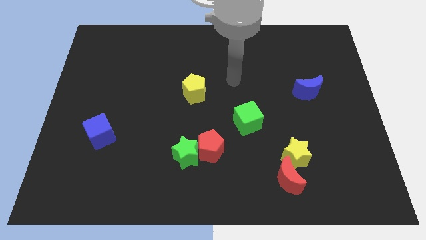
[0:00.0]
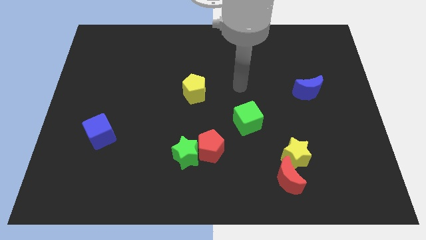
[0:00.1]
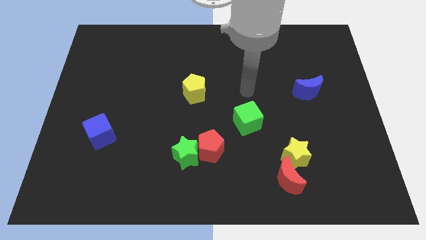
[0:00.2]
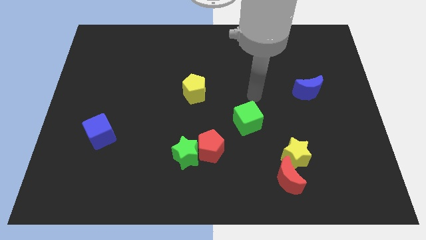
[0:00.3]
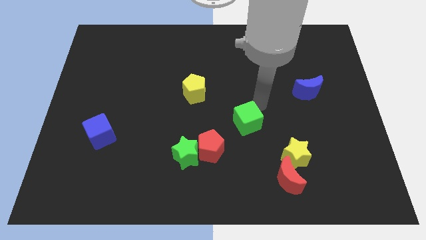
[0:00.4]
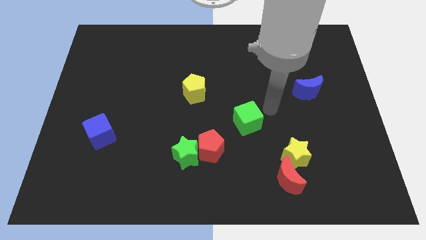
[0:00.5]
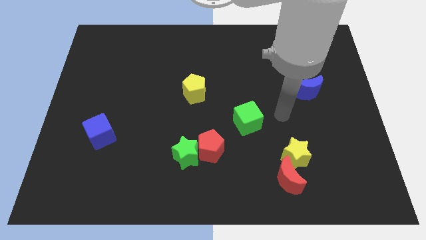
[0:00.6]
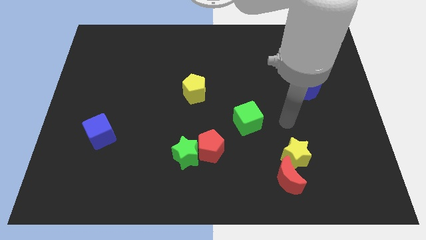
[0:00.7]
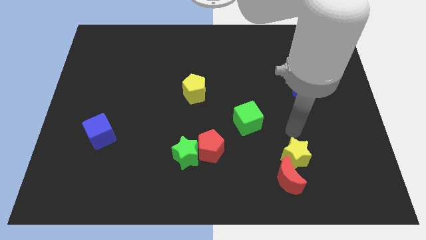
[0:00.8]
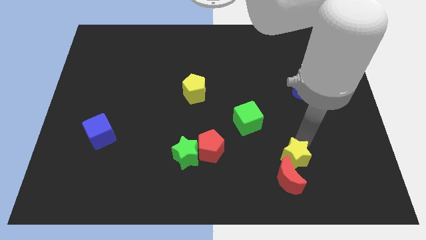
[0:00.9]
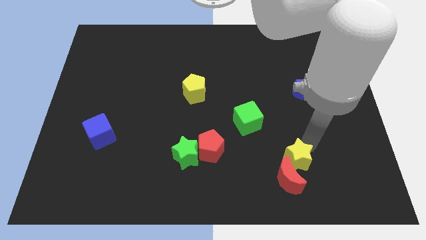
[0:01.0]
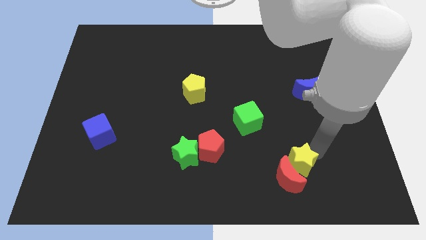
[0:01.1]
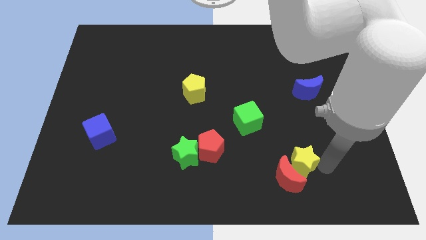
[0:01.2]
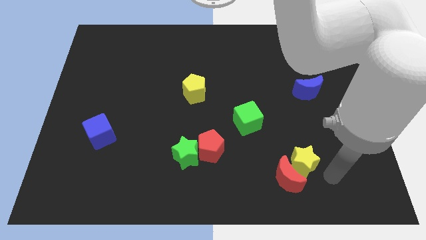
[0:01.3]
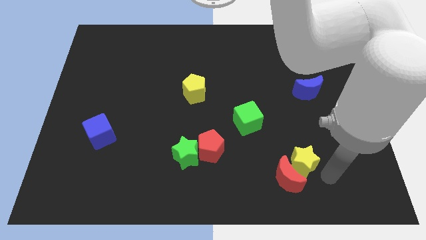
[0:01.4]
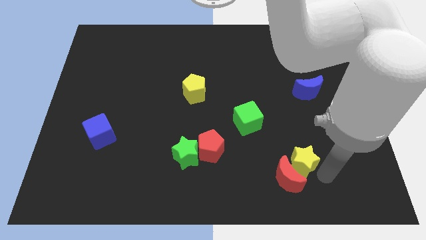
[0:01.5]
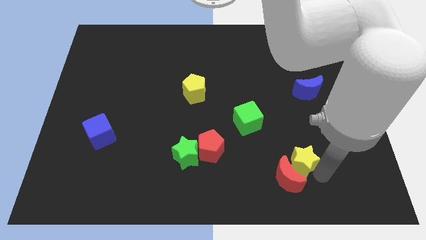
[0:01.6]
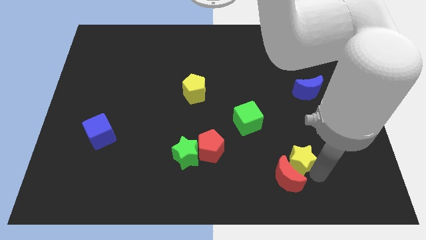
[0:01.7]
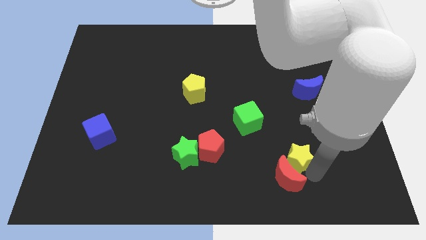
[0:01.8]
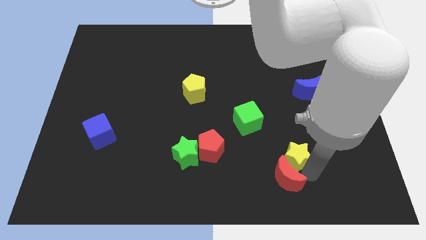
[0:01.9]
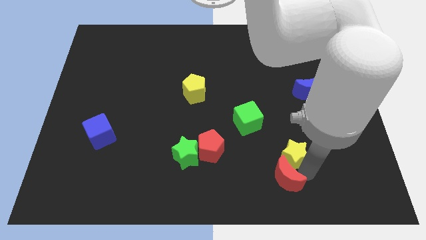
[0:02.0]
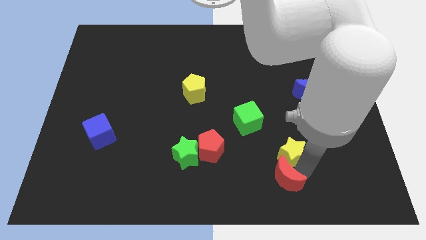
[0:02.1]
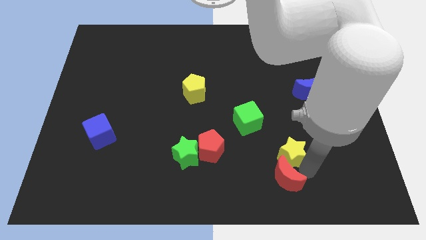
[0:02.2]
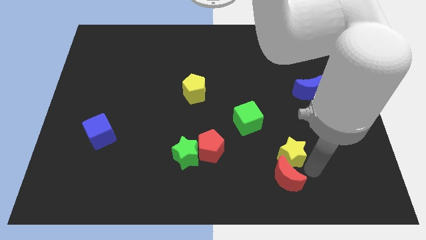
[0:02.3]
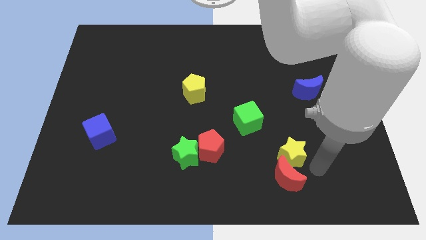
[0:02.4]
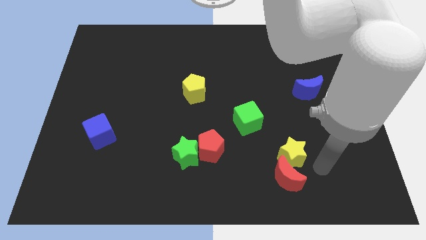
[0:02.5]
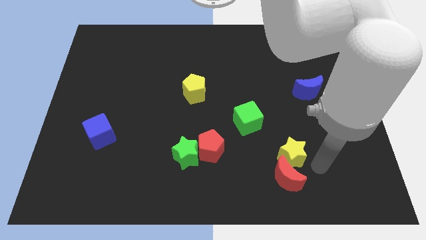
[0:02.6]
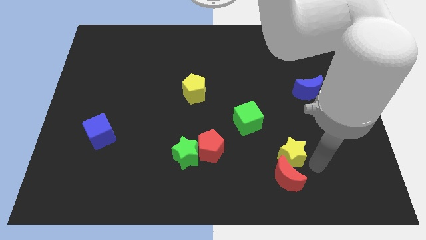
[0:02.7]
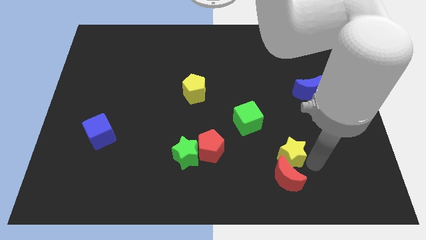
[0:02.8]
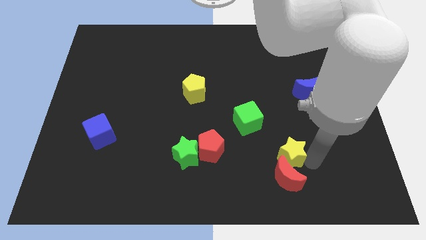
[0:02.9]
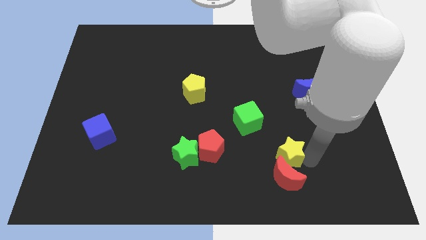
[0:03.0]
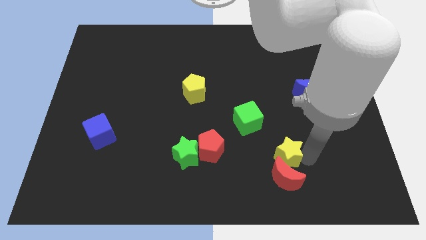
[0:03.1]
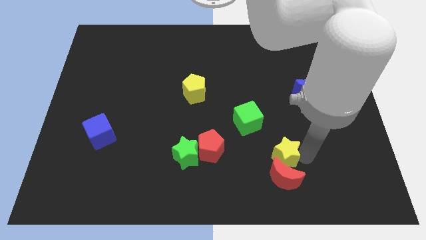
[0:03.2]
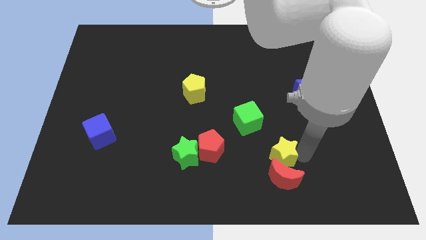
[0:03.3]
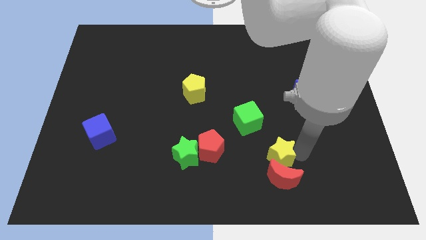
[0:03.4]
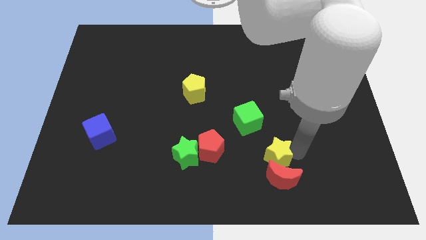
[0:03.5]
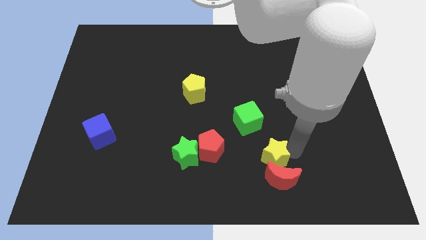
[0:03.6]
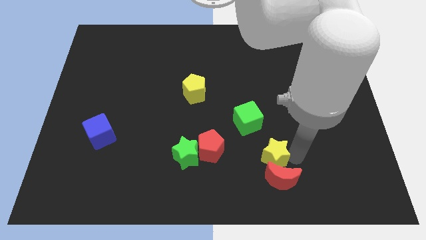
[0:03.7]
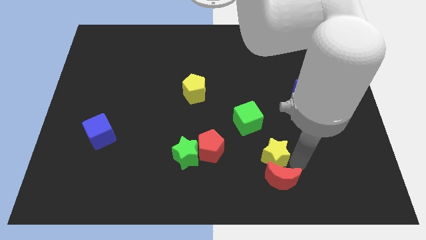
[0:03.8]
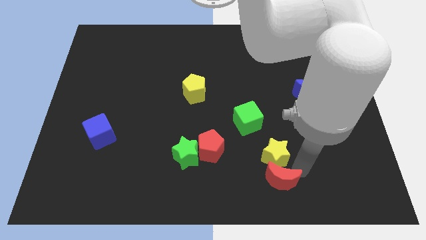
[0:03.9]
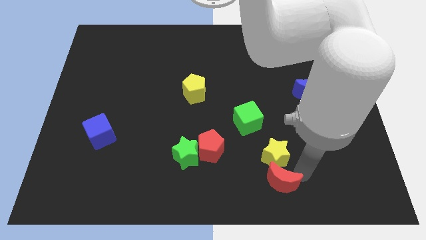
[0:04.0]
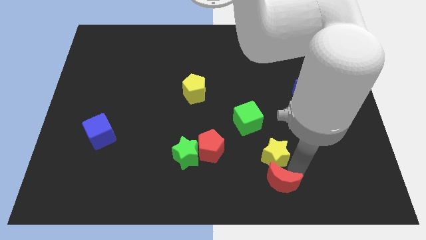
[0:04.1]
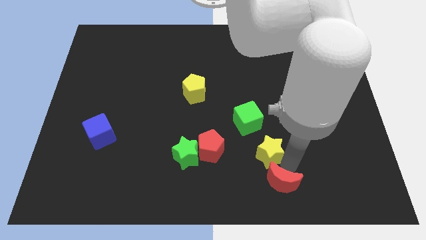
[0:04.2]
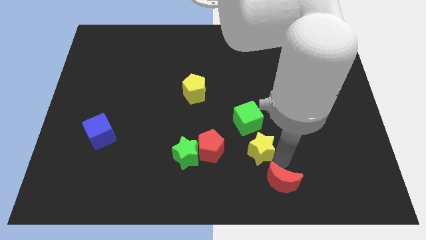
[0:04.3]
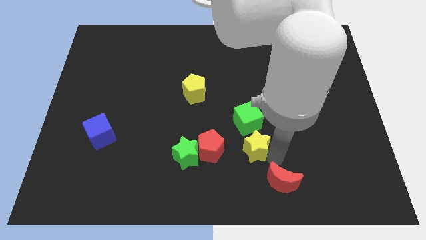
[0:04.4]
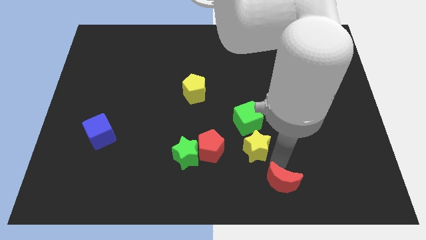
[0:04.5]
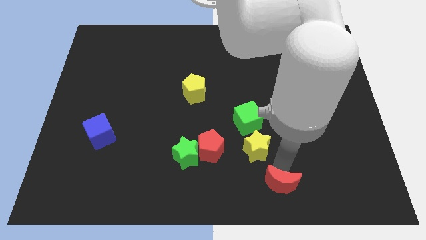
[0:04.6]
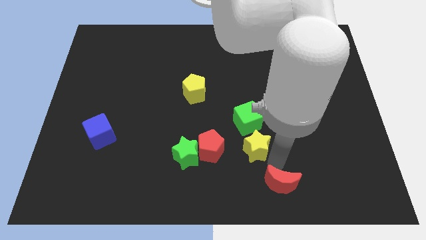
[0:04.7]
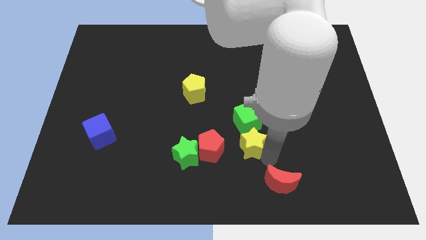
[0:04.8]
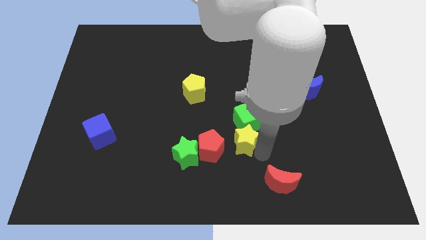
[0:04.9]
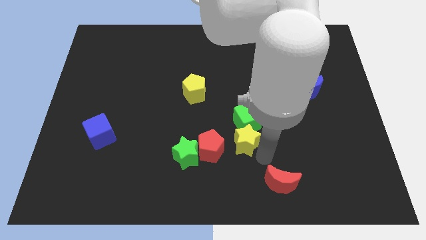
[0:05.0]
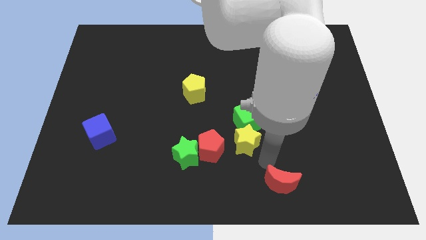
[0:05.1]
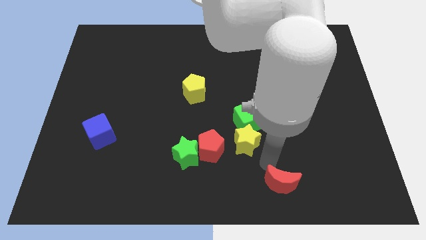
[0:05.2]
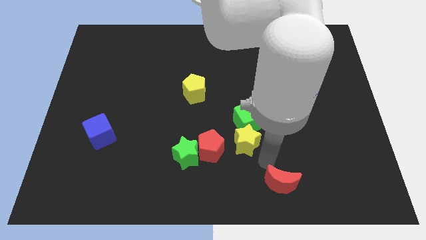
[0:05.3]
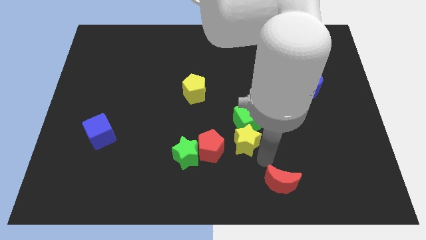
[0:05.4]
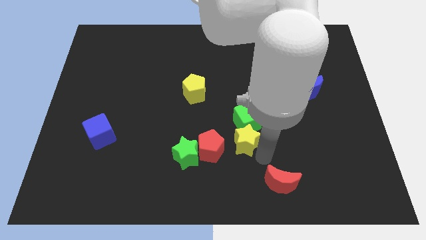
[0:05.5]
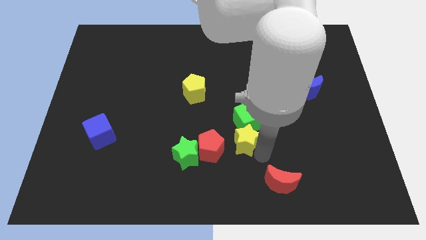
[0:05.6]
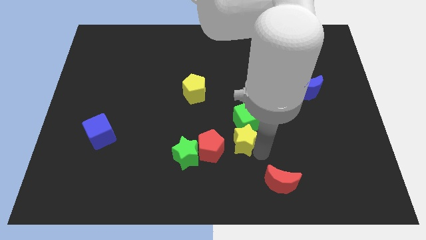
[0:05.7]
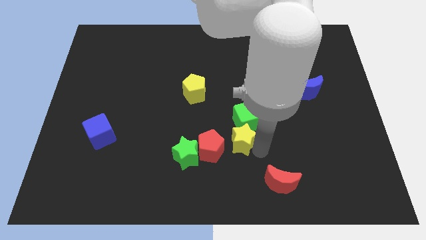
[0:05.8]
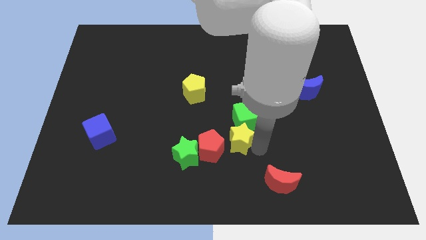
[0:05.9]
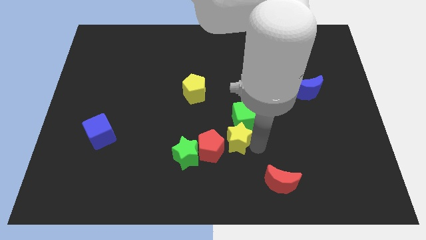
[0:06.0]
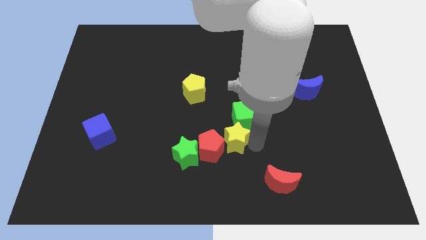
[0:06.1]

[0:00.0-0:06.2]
push the yellow star to the center of the board
